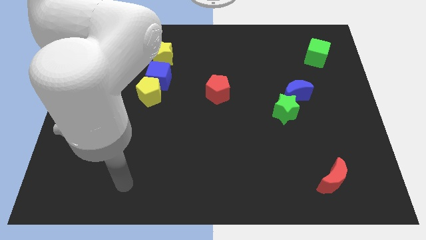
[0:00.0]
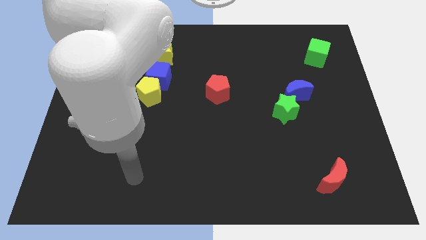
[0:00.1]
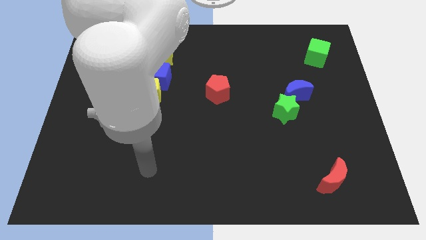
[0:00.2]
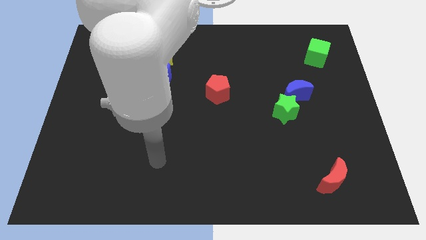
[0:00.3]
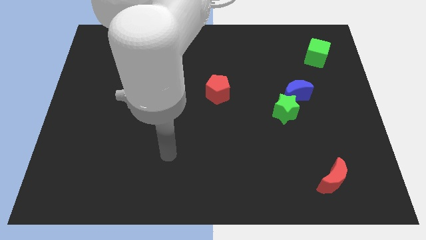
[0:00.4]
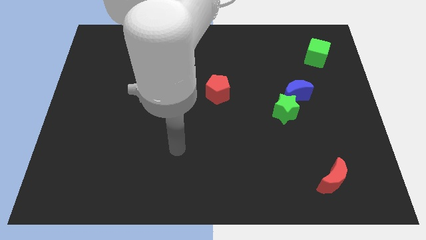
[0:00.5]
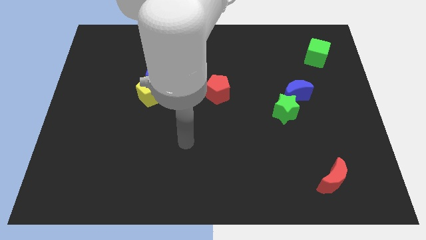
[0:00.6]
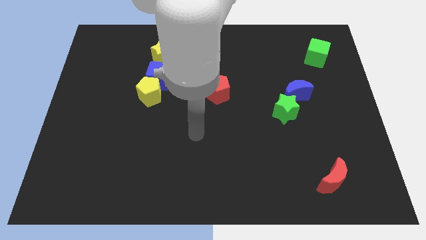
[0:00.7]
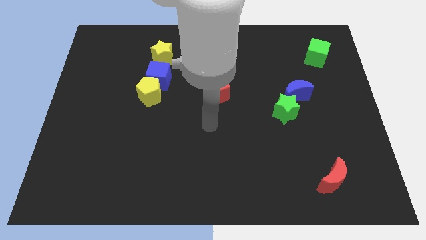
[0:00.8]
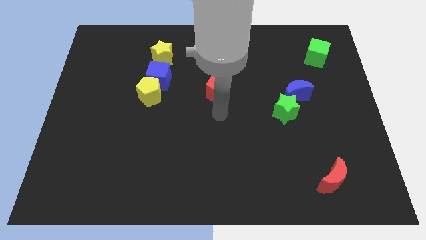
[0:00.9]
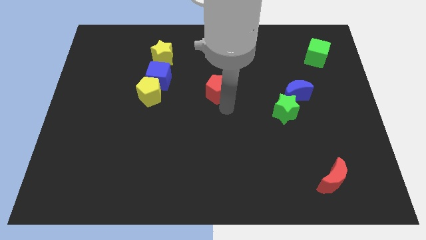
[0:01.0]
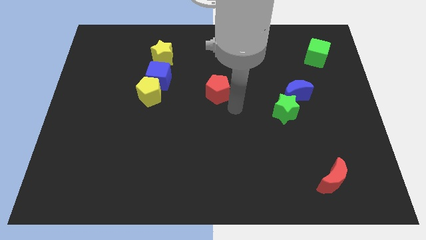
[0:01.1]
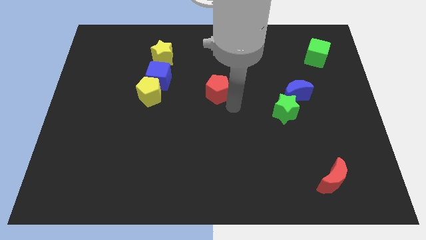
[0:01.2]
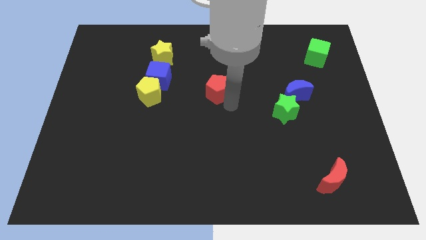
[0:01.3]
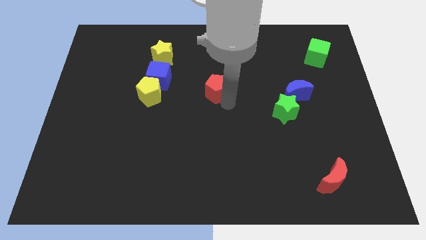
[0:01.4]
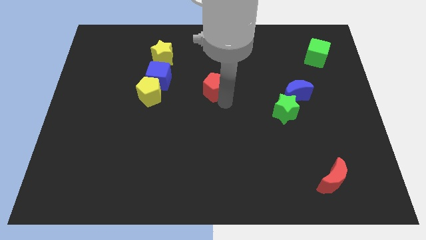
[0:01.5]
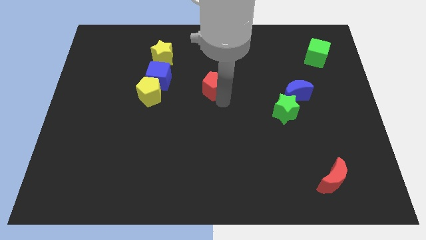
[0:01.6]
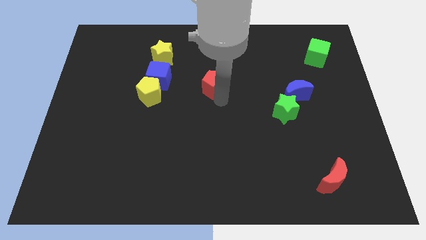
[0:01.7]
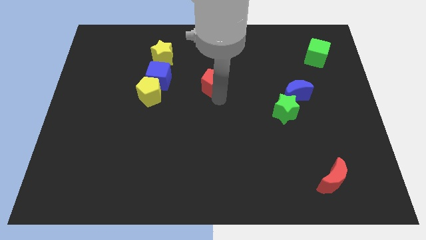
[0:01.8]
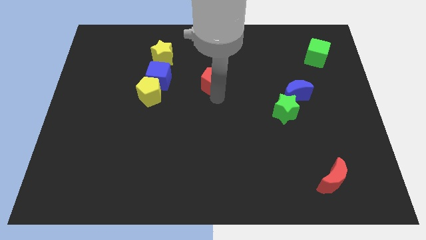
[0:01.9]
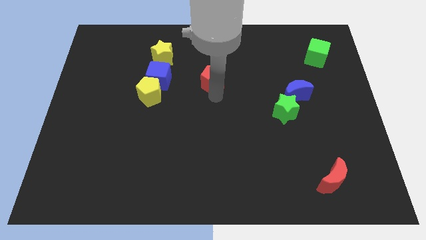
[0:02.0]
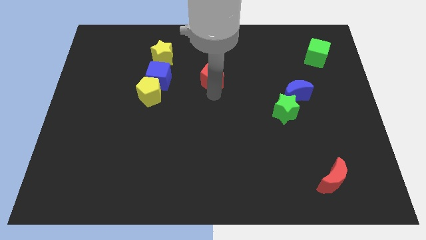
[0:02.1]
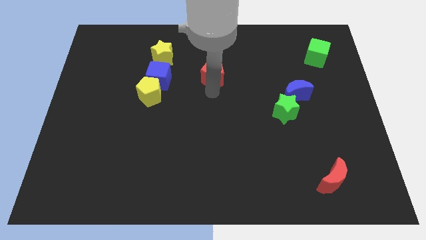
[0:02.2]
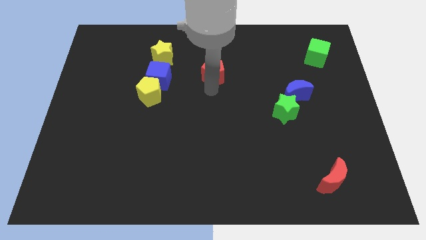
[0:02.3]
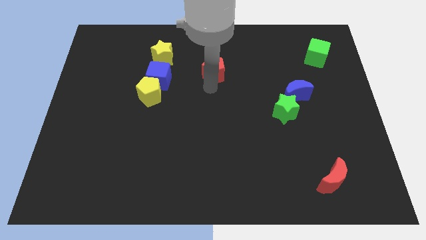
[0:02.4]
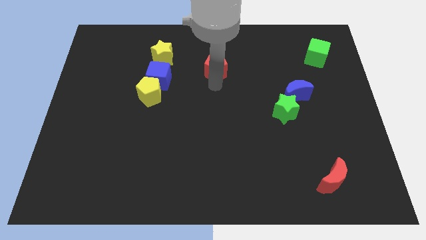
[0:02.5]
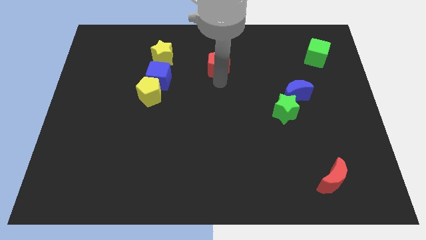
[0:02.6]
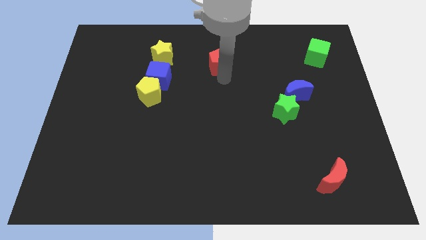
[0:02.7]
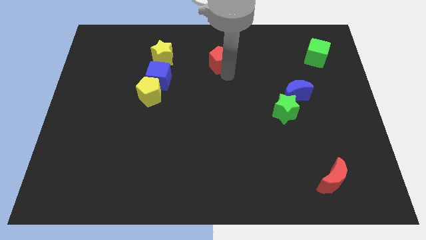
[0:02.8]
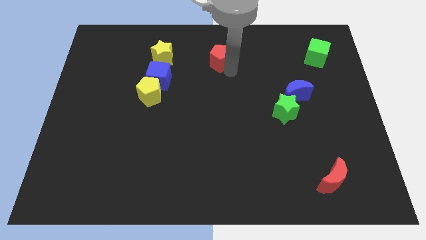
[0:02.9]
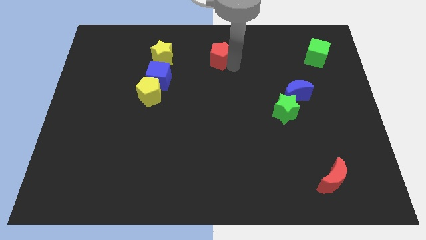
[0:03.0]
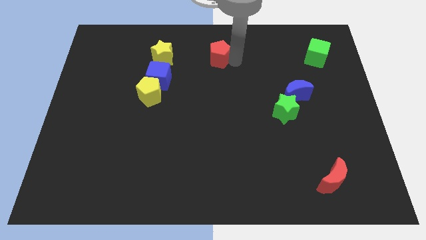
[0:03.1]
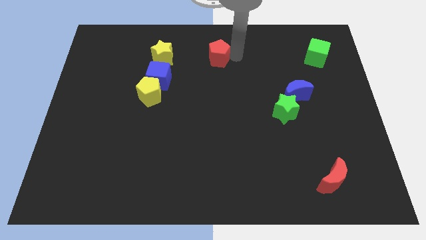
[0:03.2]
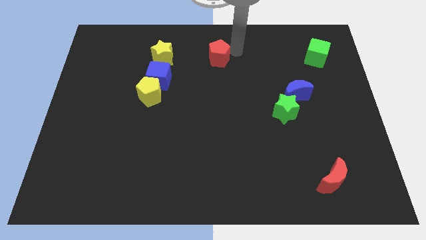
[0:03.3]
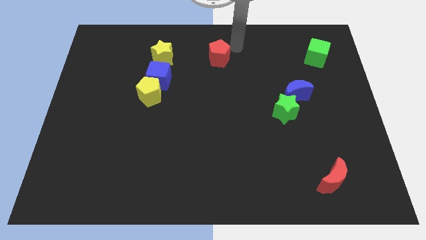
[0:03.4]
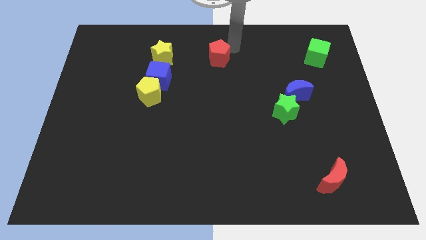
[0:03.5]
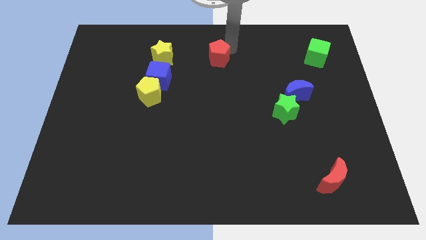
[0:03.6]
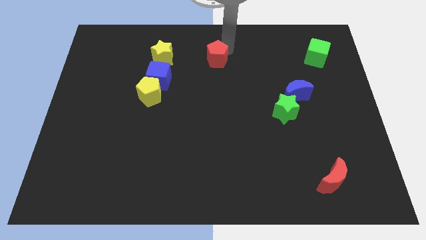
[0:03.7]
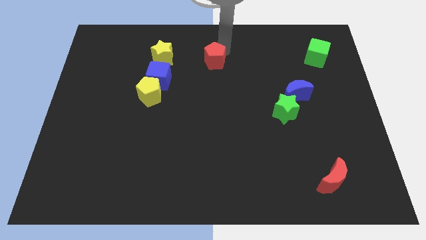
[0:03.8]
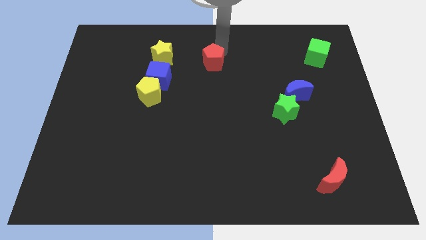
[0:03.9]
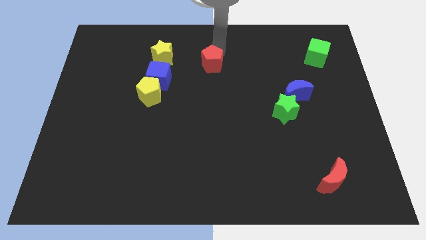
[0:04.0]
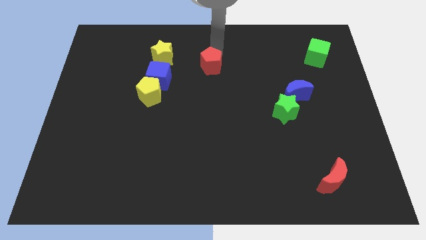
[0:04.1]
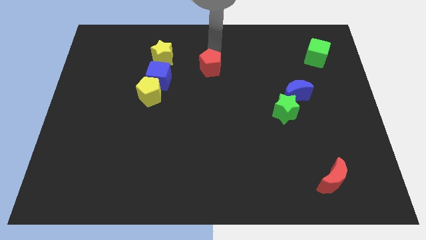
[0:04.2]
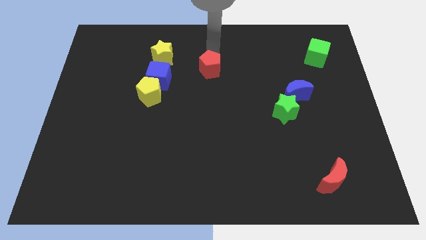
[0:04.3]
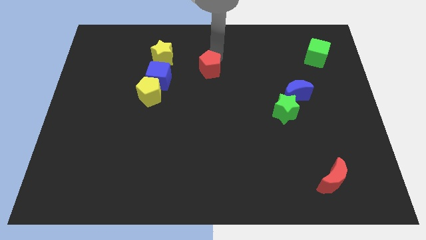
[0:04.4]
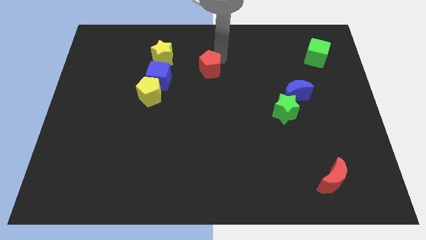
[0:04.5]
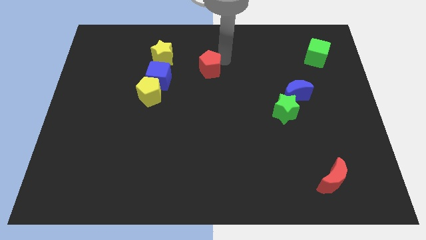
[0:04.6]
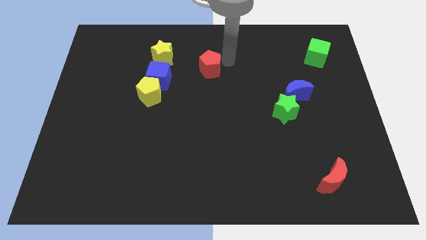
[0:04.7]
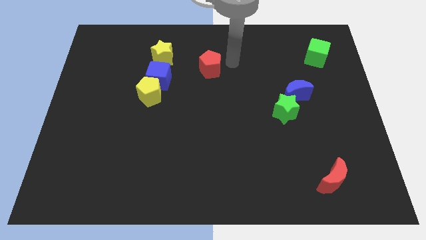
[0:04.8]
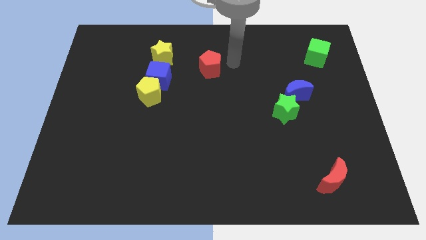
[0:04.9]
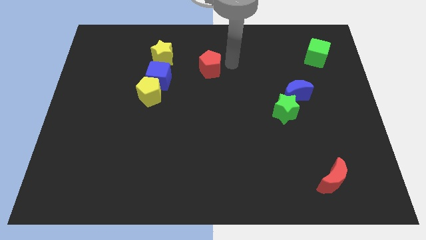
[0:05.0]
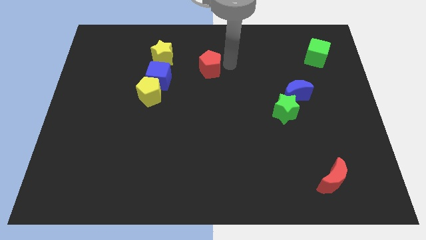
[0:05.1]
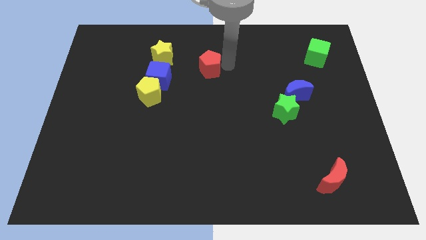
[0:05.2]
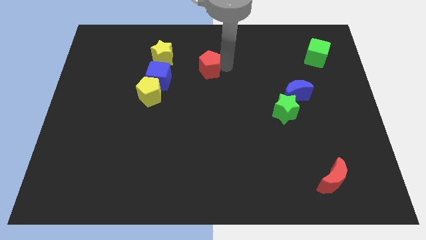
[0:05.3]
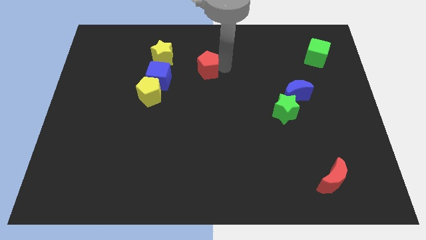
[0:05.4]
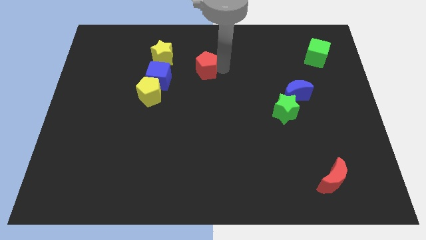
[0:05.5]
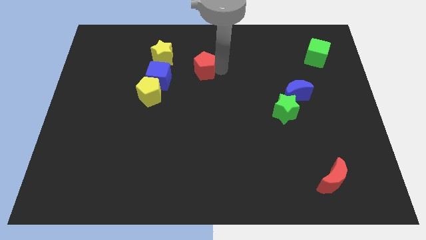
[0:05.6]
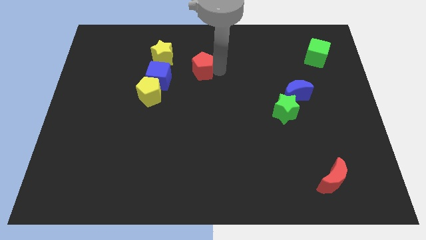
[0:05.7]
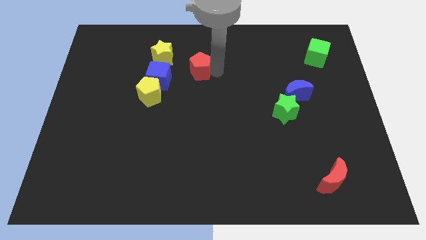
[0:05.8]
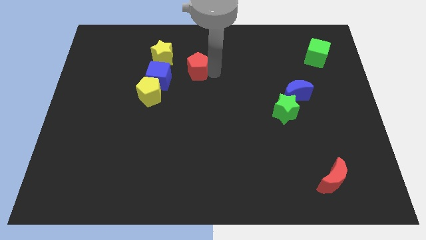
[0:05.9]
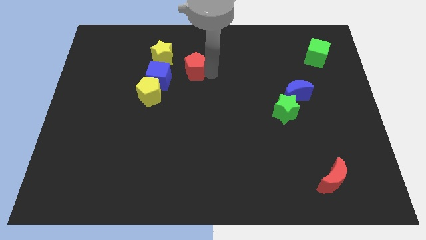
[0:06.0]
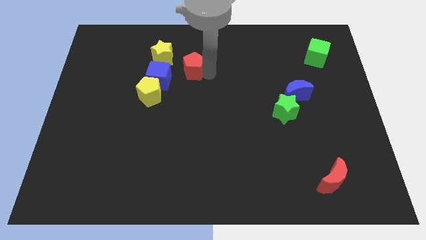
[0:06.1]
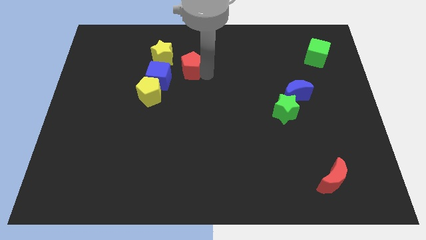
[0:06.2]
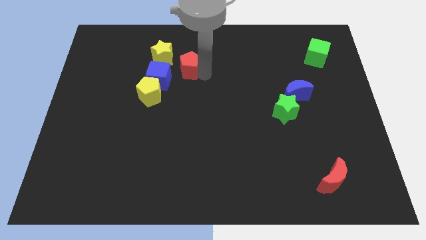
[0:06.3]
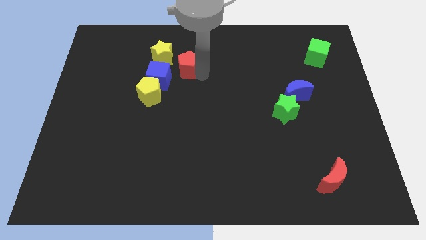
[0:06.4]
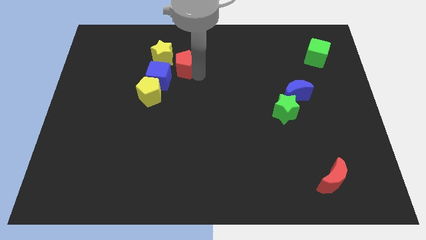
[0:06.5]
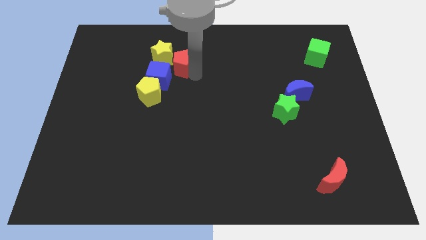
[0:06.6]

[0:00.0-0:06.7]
put the red pentagon close to the yellow star

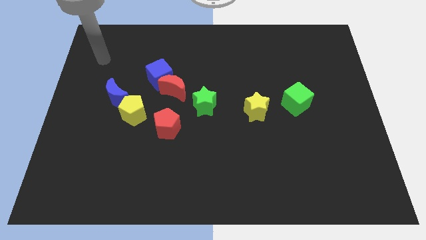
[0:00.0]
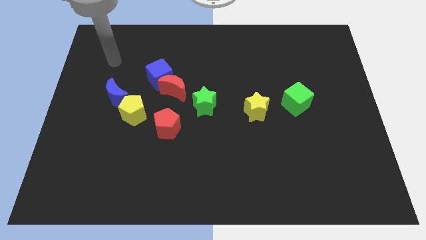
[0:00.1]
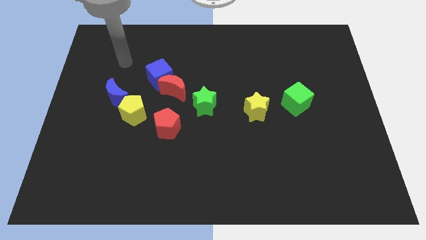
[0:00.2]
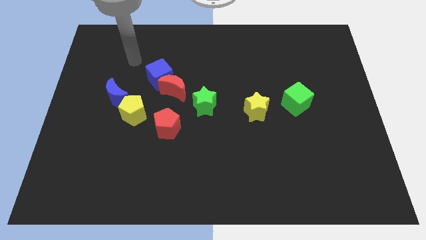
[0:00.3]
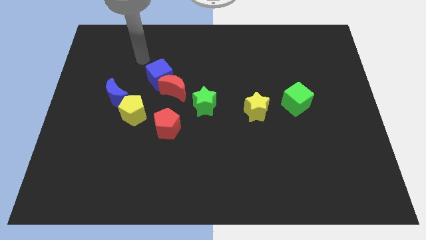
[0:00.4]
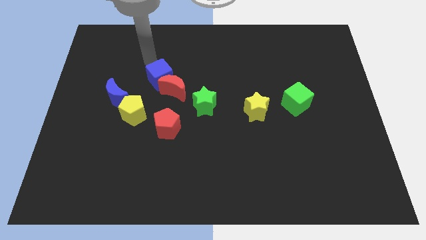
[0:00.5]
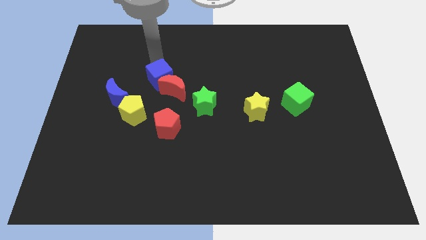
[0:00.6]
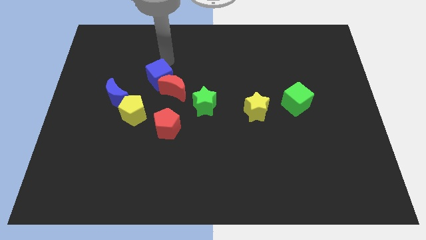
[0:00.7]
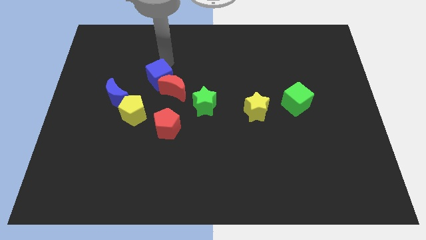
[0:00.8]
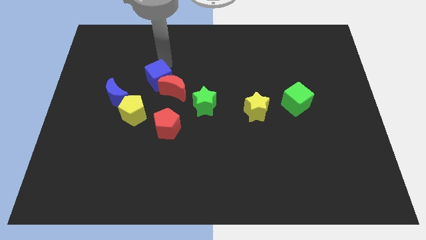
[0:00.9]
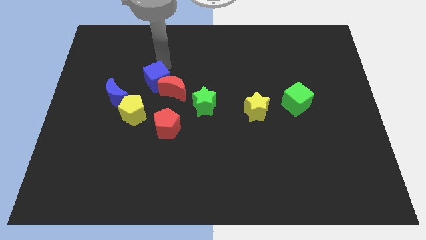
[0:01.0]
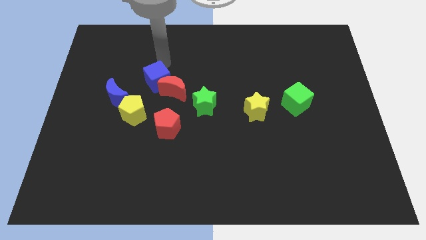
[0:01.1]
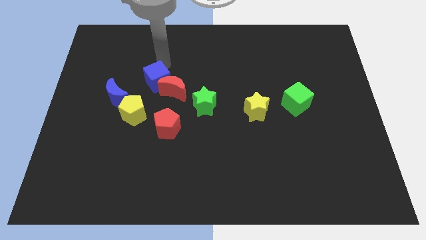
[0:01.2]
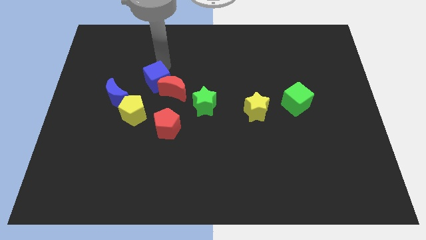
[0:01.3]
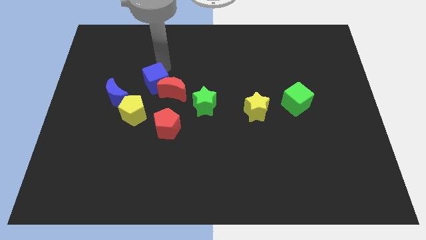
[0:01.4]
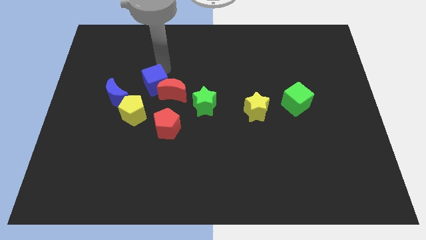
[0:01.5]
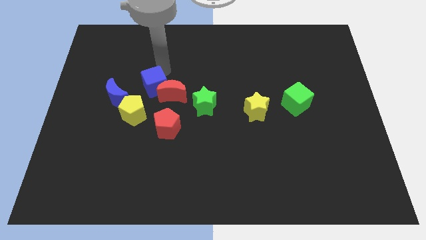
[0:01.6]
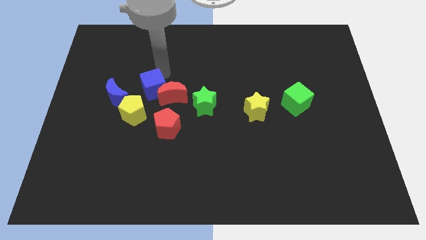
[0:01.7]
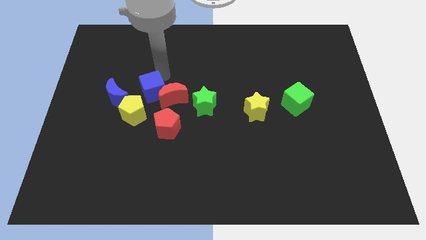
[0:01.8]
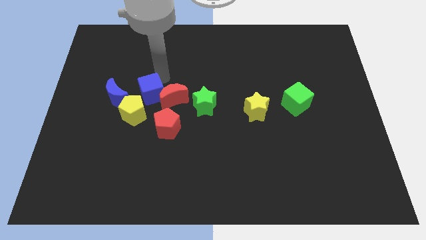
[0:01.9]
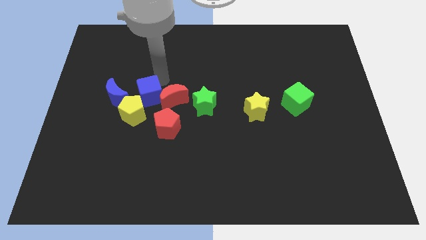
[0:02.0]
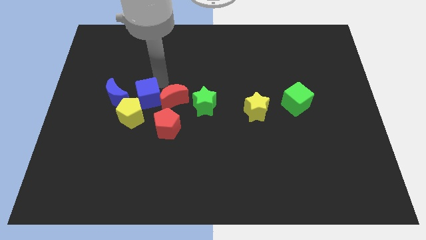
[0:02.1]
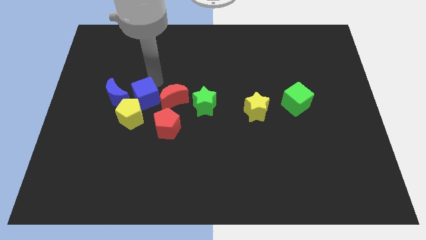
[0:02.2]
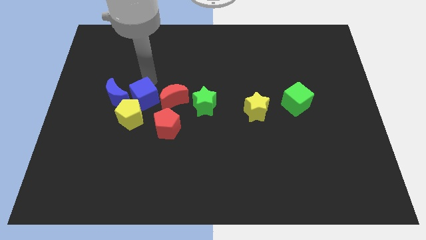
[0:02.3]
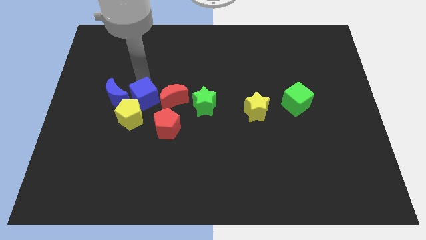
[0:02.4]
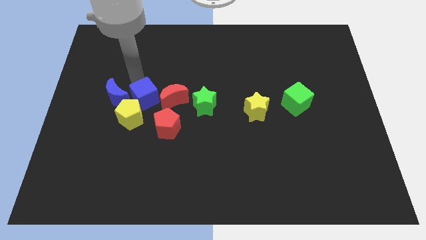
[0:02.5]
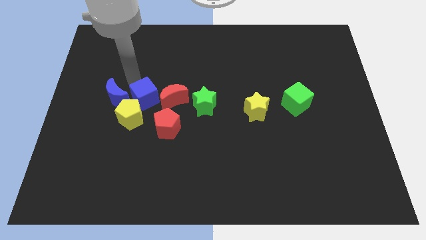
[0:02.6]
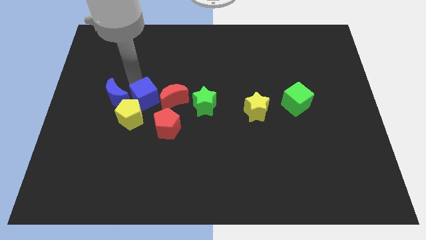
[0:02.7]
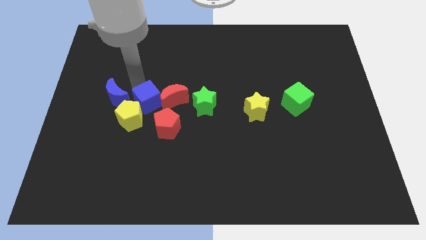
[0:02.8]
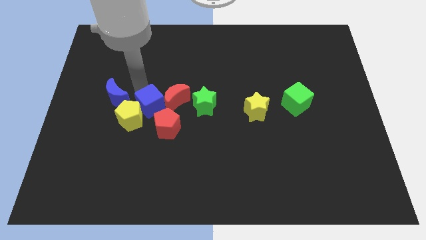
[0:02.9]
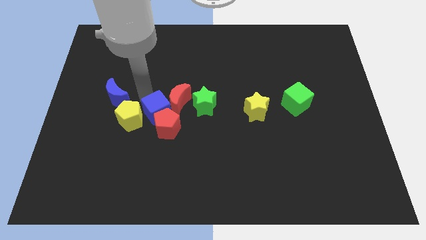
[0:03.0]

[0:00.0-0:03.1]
slide the blue cube to the red pentagon
